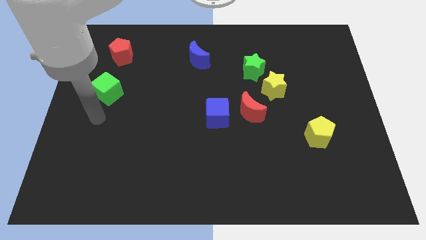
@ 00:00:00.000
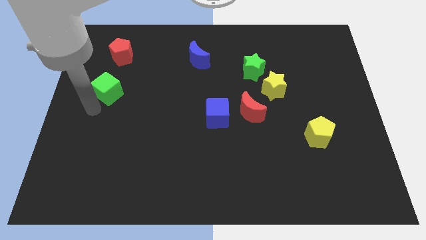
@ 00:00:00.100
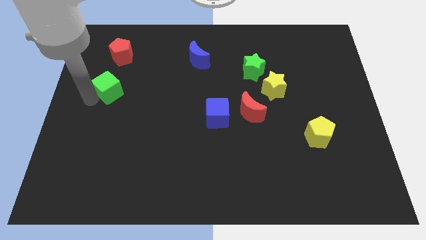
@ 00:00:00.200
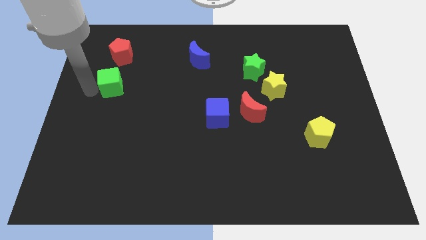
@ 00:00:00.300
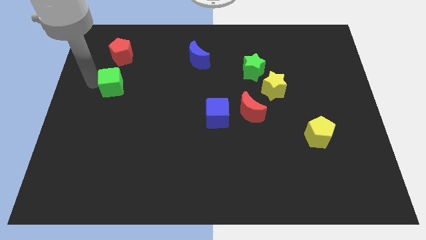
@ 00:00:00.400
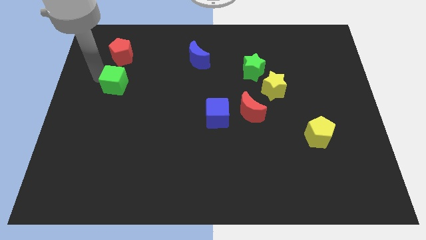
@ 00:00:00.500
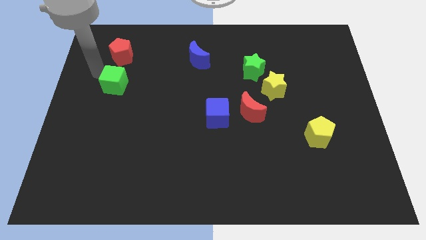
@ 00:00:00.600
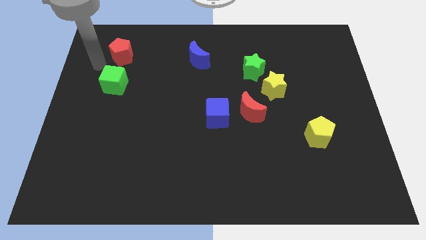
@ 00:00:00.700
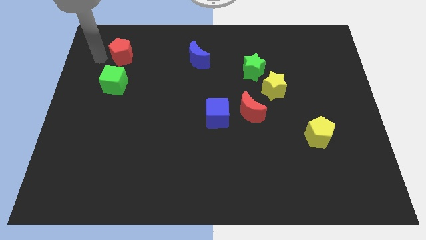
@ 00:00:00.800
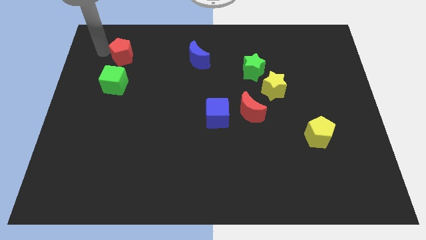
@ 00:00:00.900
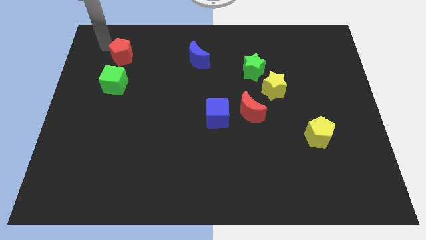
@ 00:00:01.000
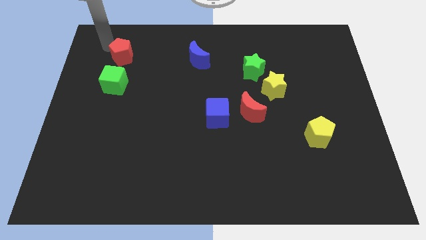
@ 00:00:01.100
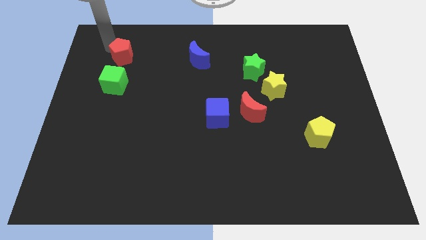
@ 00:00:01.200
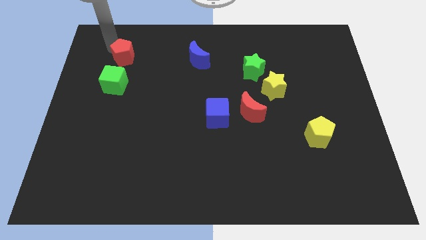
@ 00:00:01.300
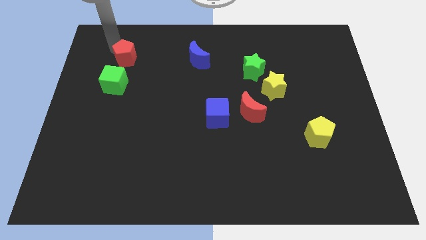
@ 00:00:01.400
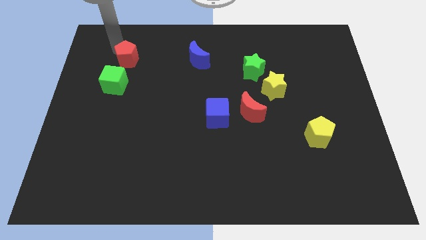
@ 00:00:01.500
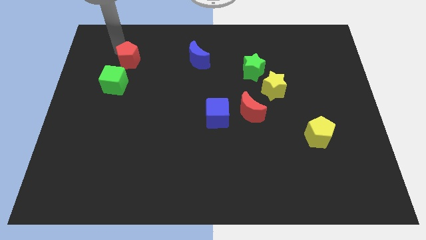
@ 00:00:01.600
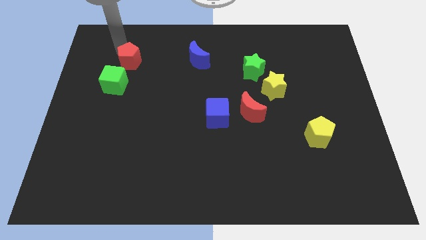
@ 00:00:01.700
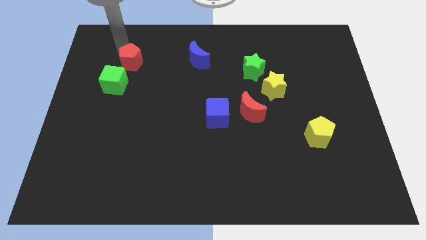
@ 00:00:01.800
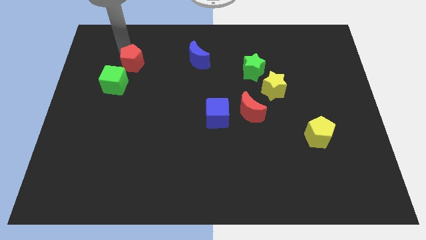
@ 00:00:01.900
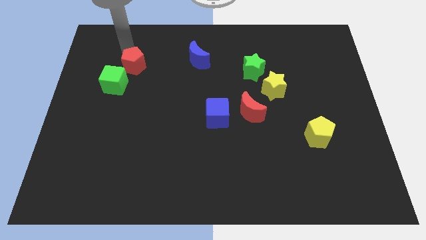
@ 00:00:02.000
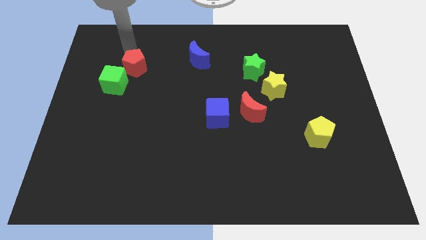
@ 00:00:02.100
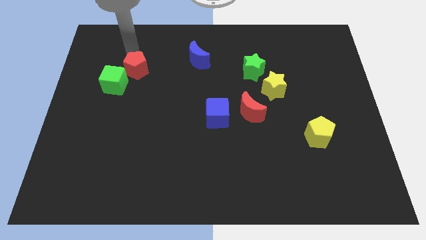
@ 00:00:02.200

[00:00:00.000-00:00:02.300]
slightly slide the red pentagon down and right diagonally

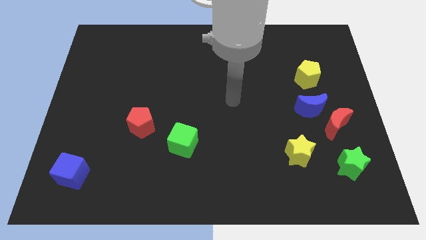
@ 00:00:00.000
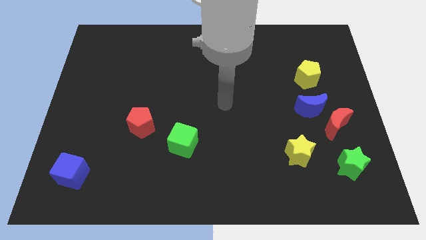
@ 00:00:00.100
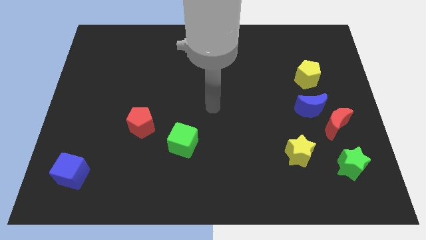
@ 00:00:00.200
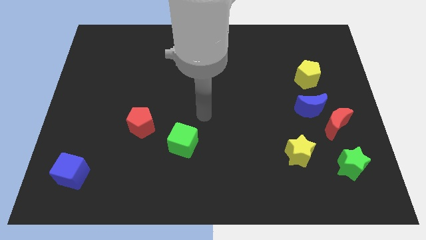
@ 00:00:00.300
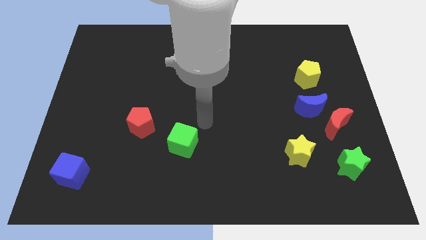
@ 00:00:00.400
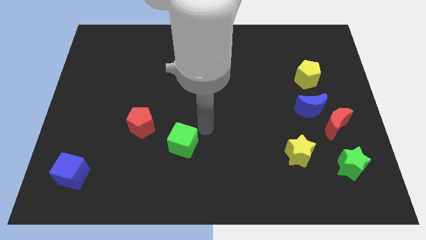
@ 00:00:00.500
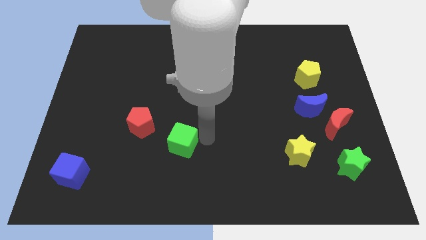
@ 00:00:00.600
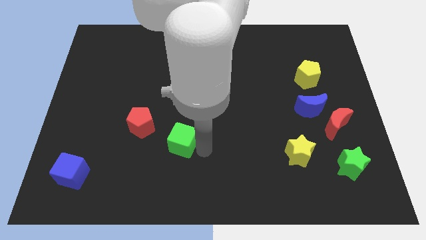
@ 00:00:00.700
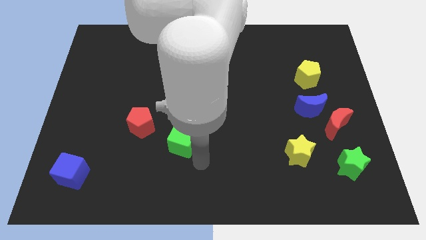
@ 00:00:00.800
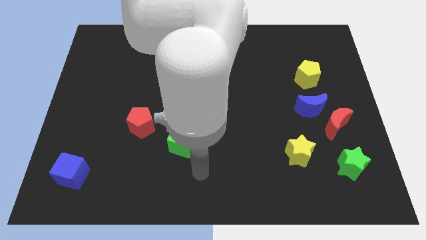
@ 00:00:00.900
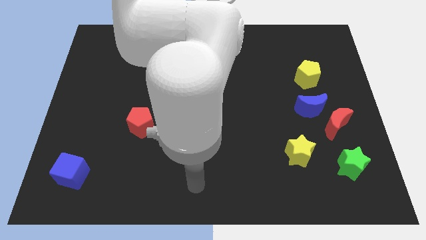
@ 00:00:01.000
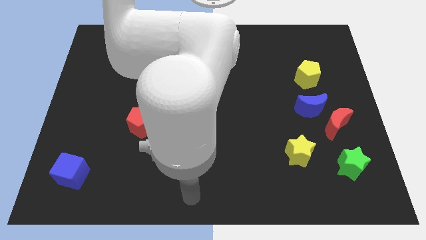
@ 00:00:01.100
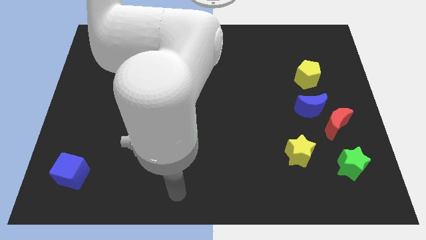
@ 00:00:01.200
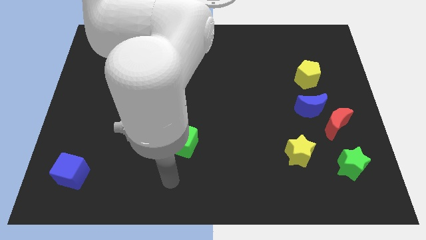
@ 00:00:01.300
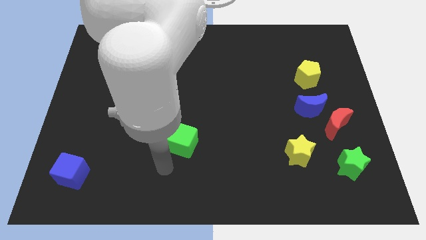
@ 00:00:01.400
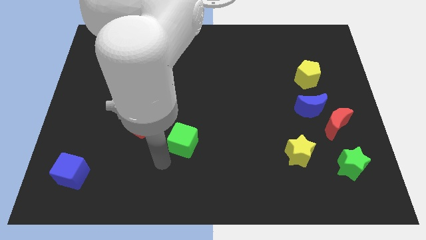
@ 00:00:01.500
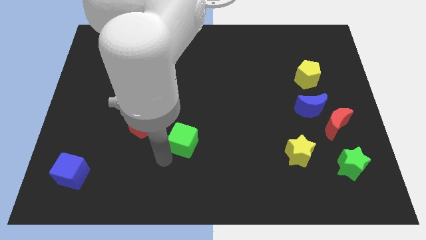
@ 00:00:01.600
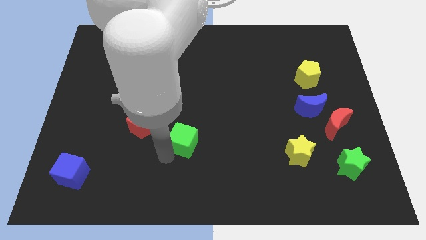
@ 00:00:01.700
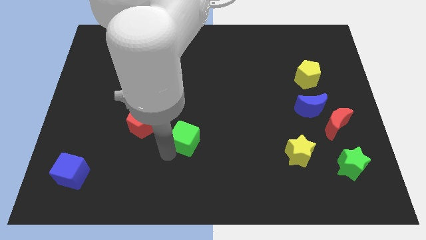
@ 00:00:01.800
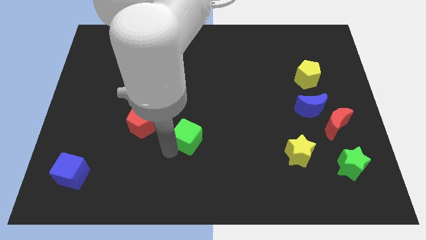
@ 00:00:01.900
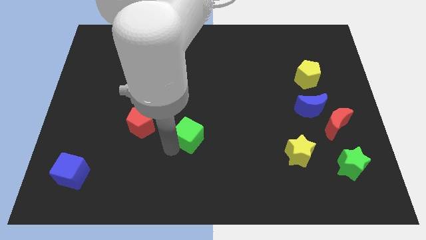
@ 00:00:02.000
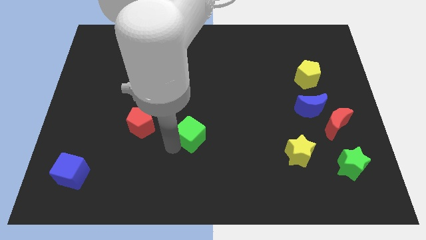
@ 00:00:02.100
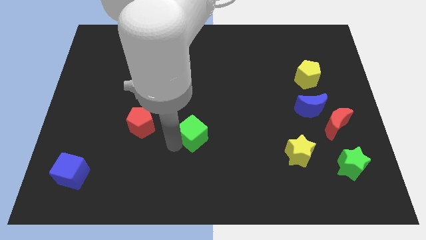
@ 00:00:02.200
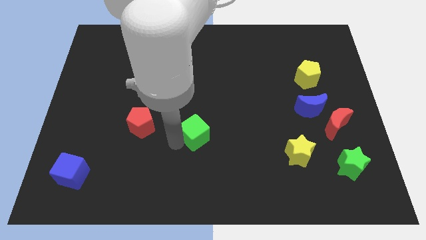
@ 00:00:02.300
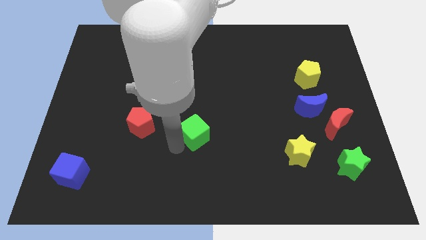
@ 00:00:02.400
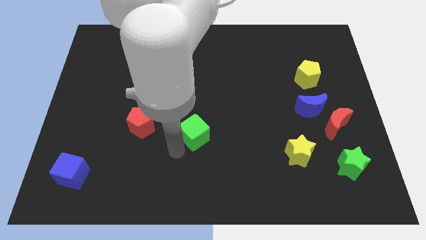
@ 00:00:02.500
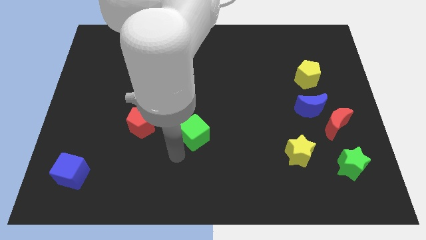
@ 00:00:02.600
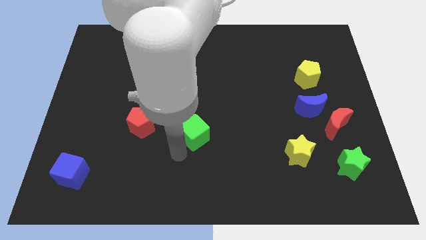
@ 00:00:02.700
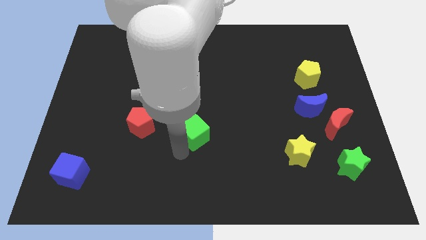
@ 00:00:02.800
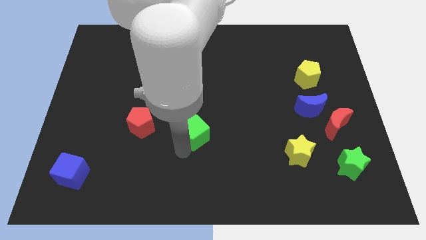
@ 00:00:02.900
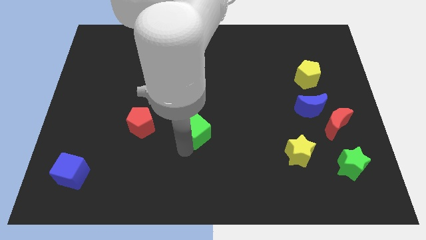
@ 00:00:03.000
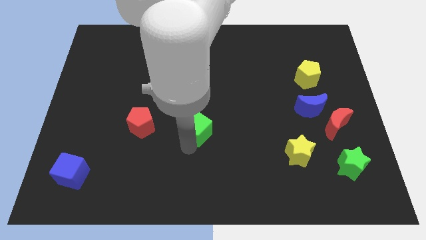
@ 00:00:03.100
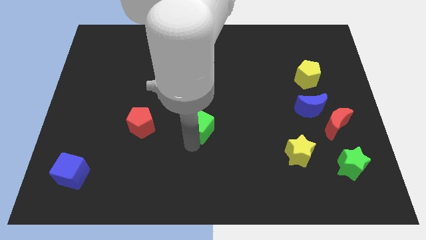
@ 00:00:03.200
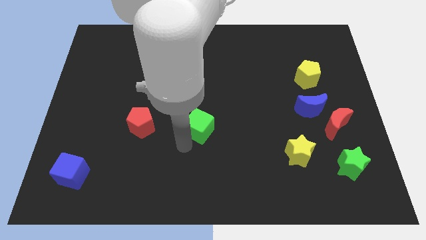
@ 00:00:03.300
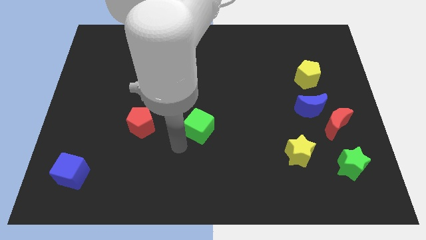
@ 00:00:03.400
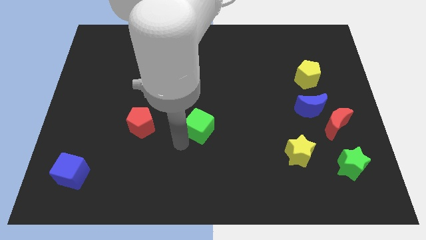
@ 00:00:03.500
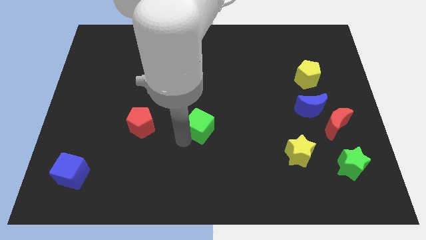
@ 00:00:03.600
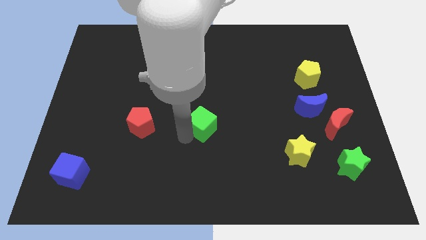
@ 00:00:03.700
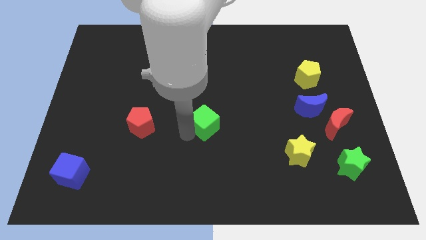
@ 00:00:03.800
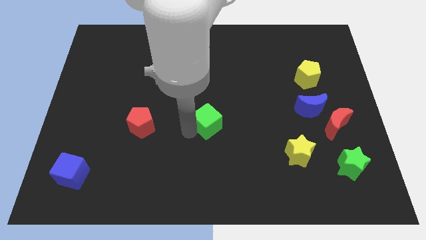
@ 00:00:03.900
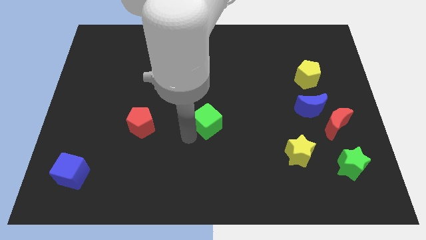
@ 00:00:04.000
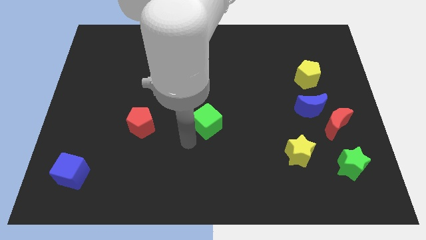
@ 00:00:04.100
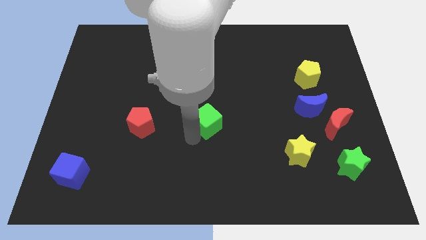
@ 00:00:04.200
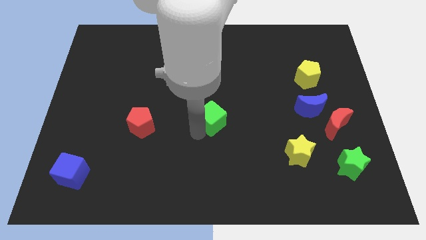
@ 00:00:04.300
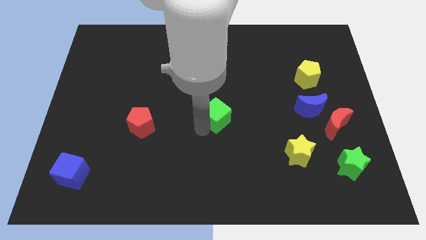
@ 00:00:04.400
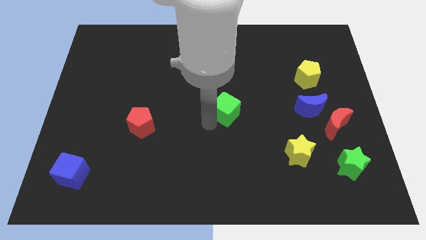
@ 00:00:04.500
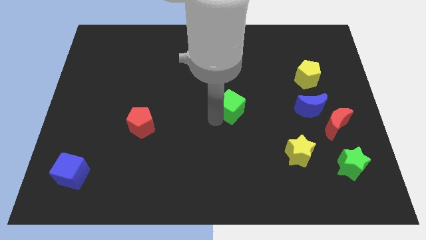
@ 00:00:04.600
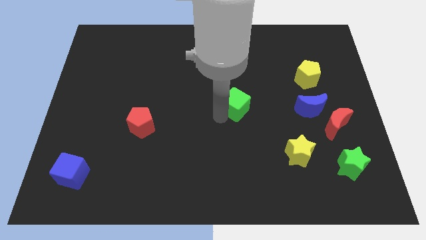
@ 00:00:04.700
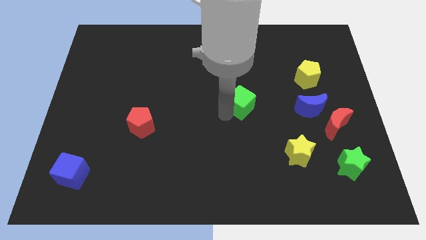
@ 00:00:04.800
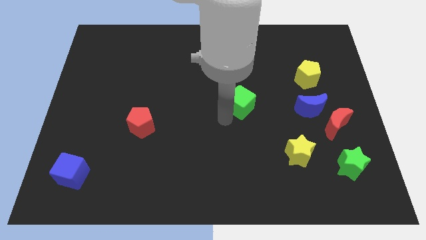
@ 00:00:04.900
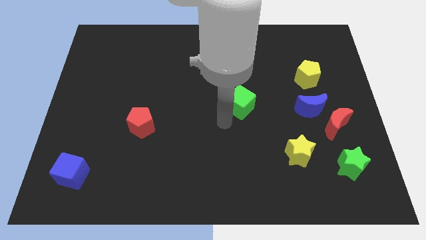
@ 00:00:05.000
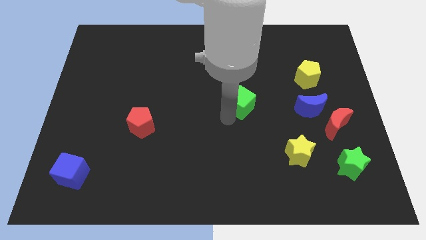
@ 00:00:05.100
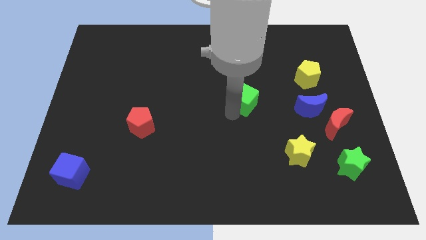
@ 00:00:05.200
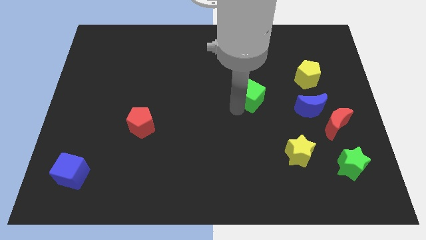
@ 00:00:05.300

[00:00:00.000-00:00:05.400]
slide the green cube upwards and then right

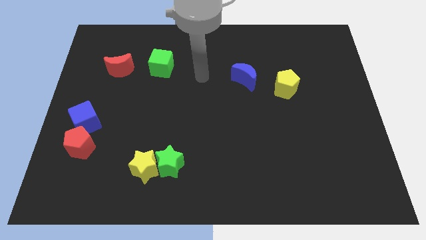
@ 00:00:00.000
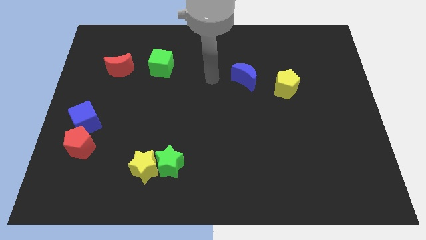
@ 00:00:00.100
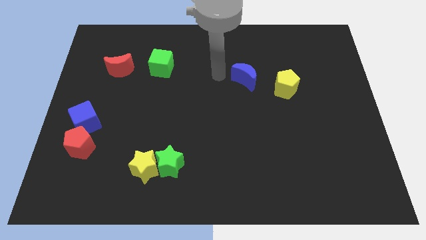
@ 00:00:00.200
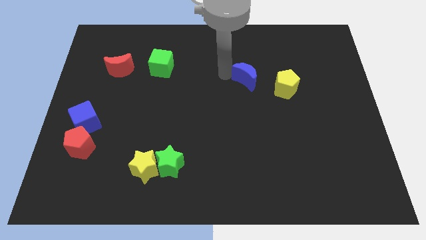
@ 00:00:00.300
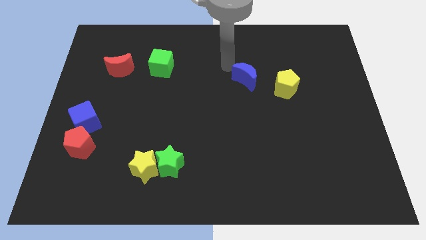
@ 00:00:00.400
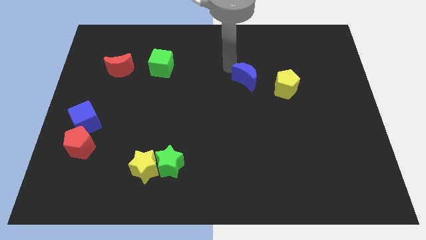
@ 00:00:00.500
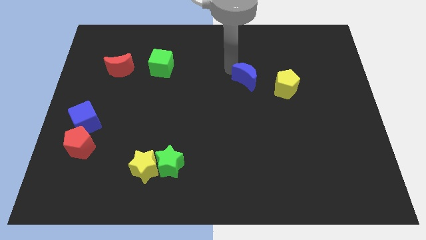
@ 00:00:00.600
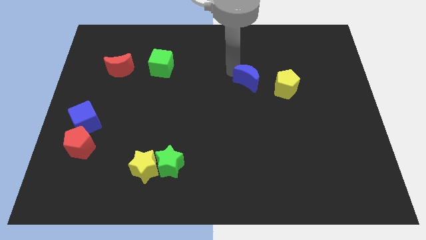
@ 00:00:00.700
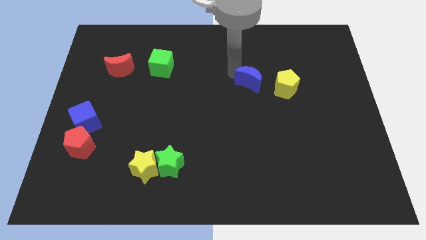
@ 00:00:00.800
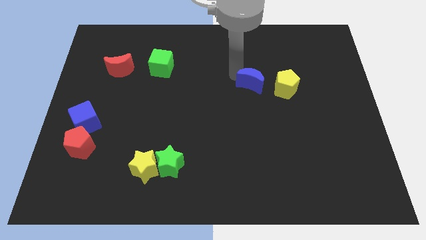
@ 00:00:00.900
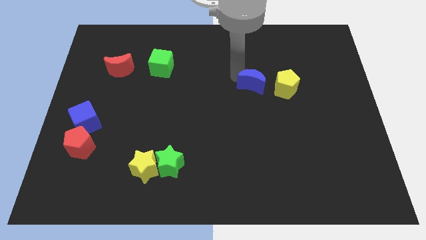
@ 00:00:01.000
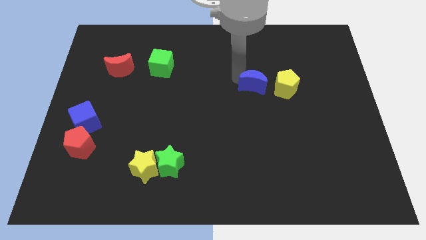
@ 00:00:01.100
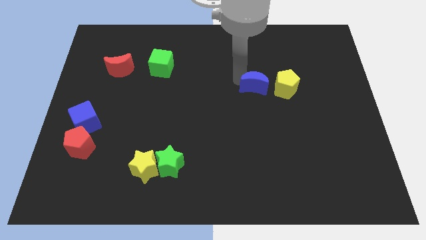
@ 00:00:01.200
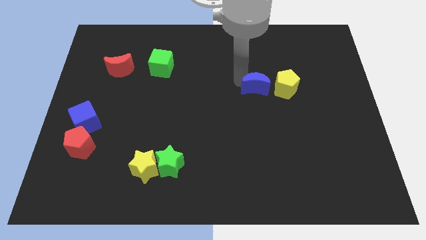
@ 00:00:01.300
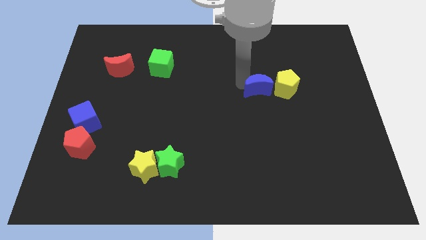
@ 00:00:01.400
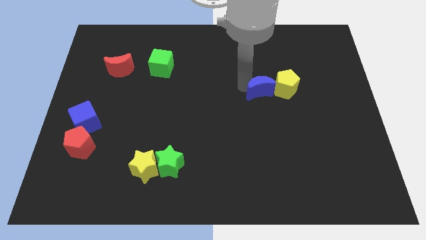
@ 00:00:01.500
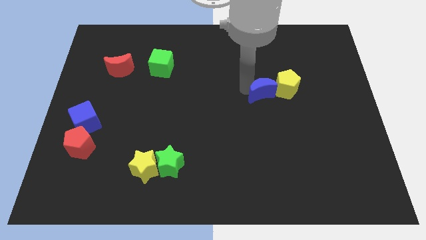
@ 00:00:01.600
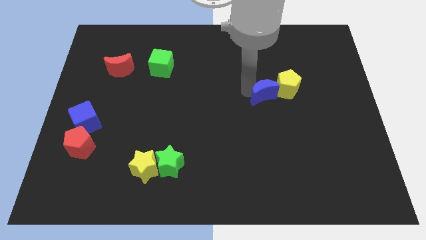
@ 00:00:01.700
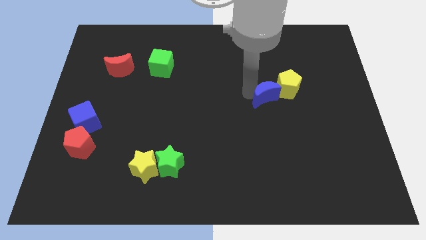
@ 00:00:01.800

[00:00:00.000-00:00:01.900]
slightly slide the blue moon downwards and right diagonally
